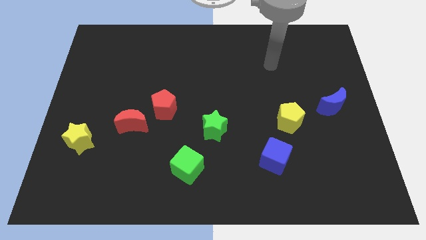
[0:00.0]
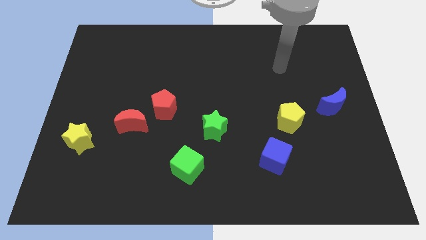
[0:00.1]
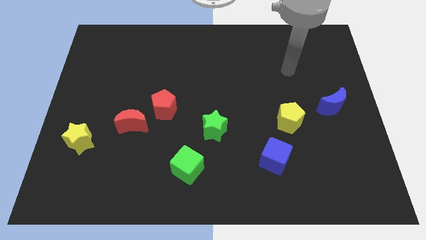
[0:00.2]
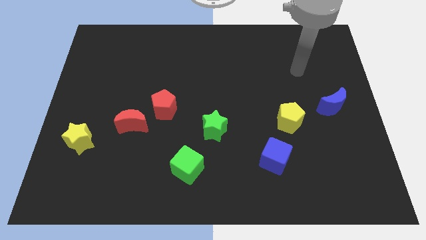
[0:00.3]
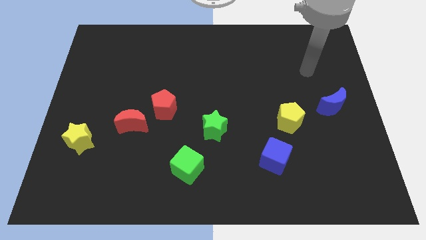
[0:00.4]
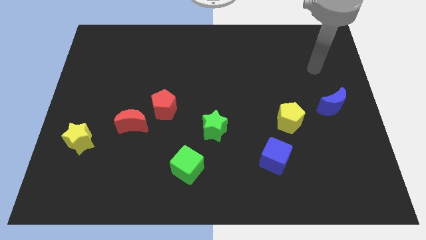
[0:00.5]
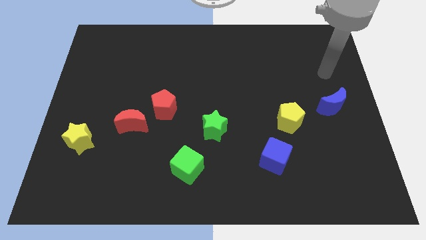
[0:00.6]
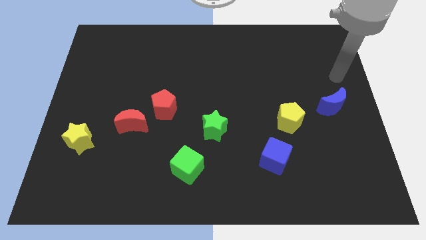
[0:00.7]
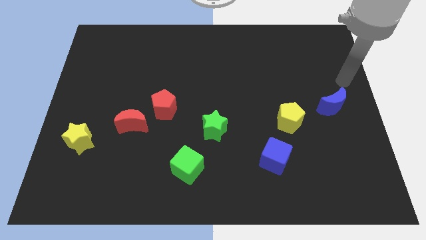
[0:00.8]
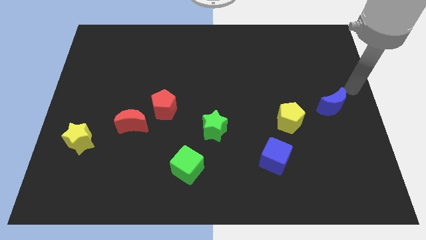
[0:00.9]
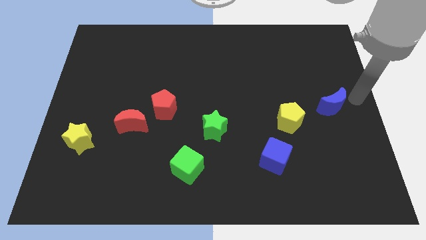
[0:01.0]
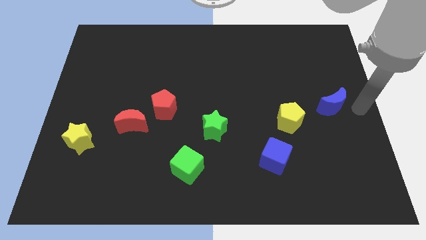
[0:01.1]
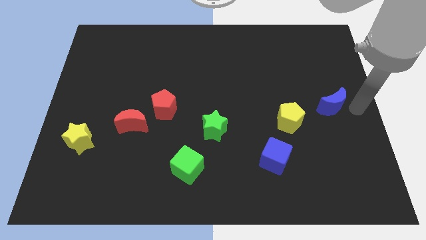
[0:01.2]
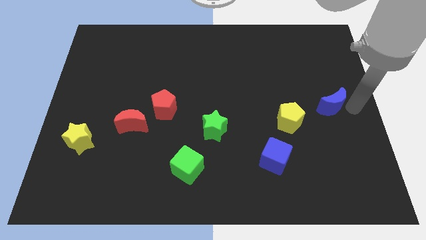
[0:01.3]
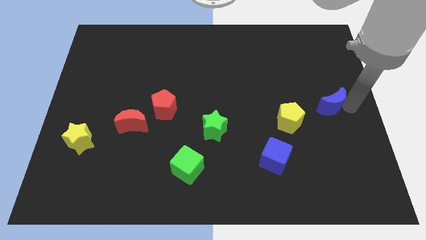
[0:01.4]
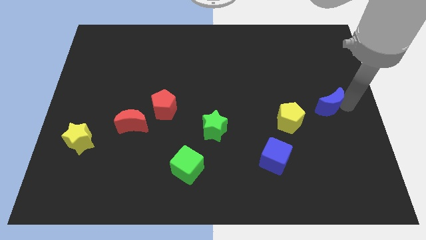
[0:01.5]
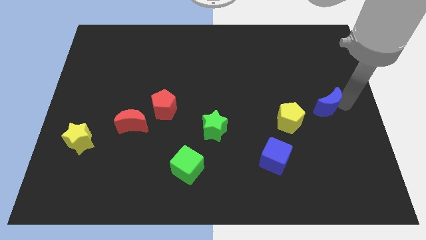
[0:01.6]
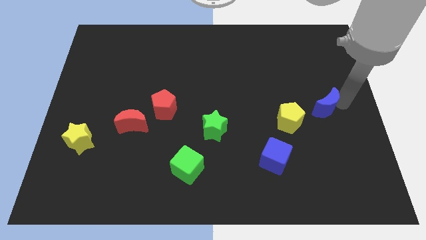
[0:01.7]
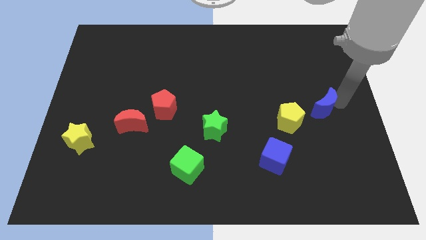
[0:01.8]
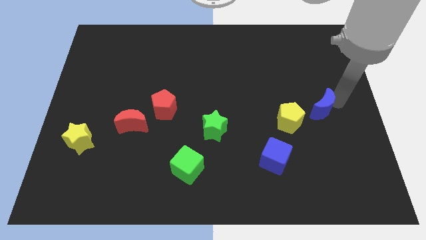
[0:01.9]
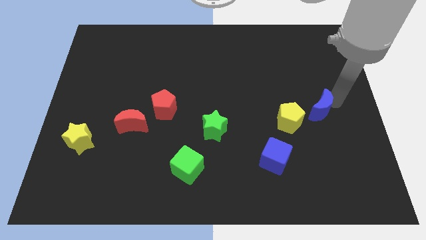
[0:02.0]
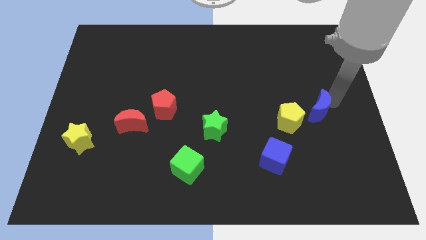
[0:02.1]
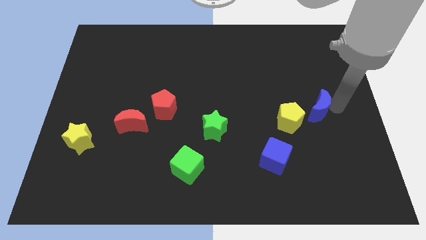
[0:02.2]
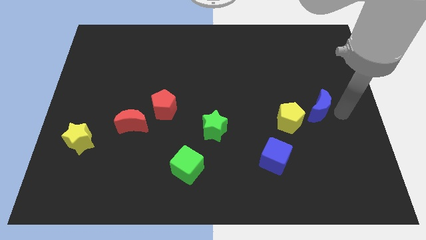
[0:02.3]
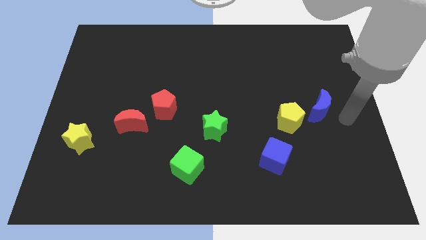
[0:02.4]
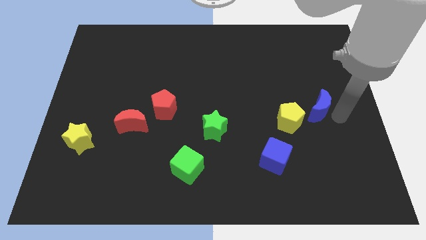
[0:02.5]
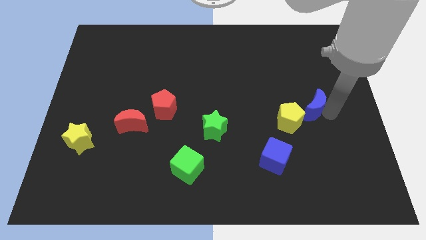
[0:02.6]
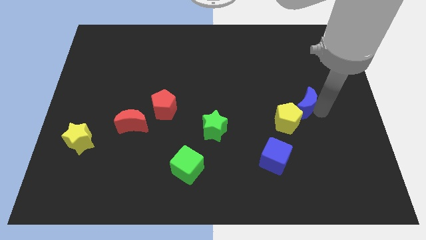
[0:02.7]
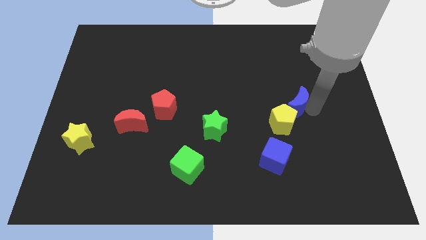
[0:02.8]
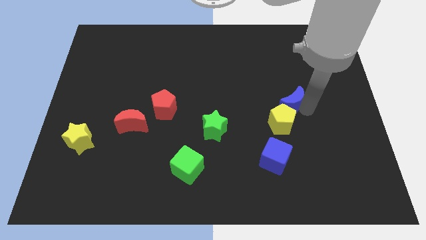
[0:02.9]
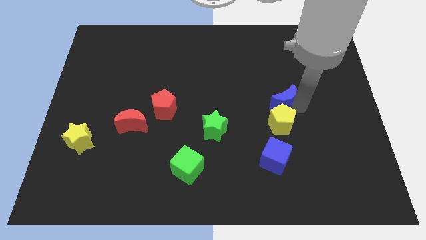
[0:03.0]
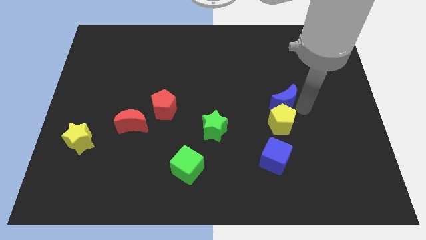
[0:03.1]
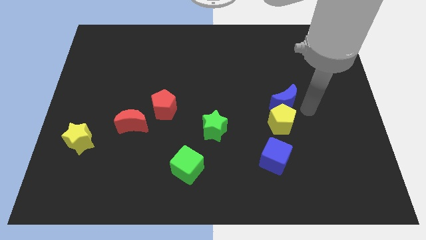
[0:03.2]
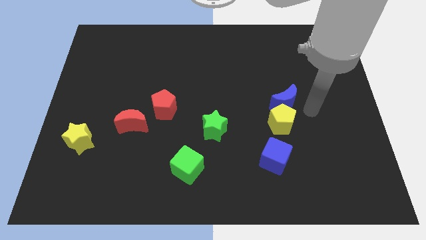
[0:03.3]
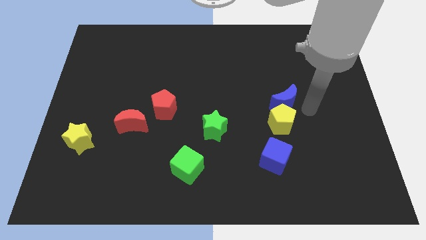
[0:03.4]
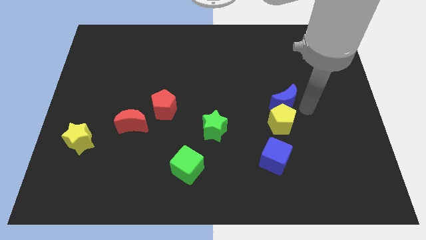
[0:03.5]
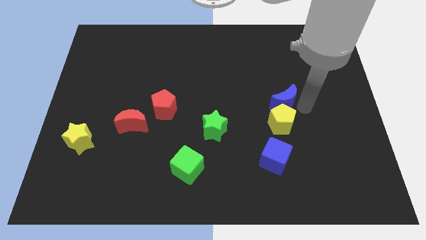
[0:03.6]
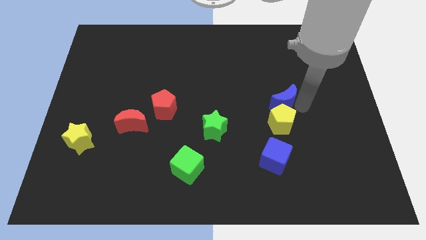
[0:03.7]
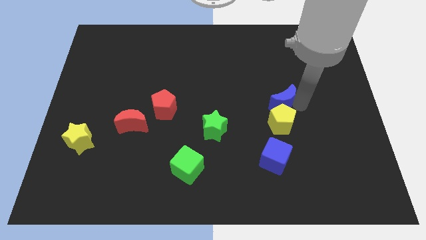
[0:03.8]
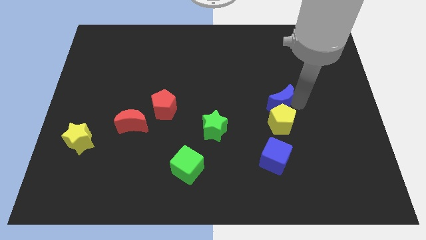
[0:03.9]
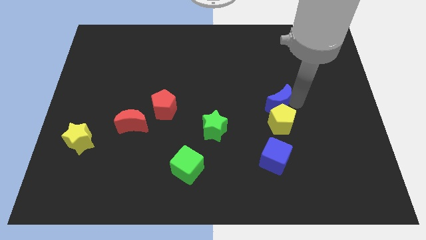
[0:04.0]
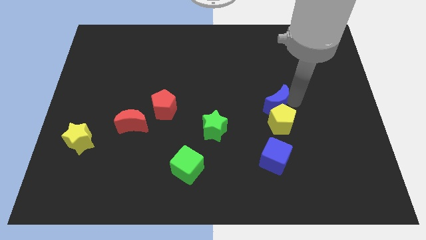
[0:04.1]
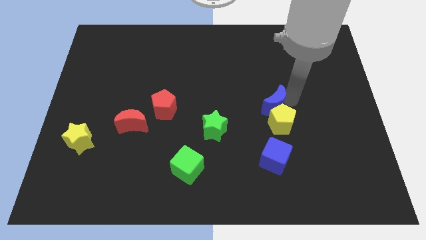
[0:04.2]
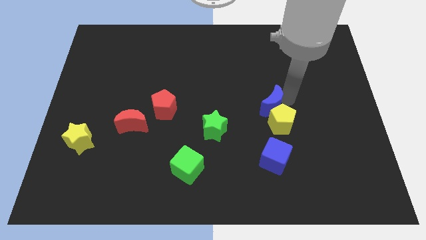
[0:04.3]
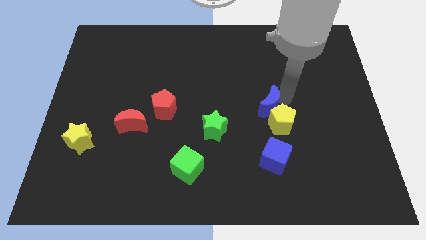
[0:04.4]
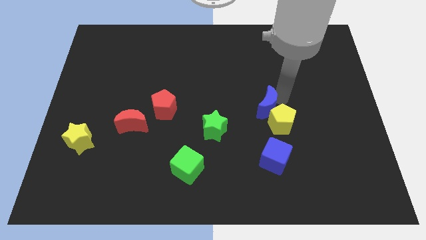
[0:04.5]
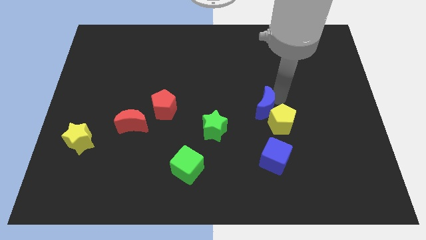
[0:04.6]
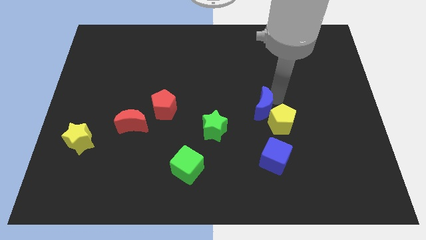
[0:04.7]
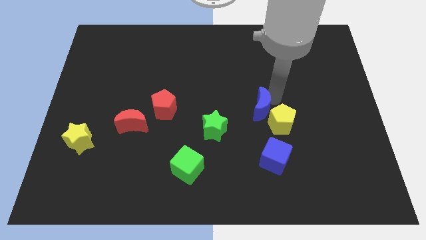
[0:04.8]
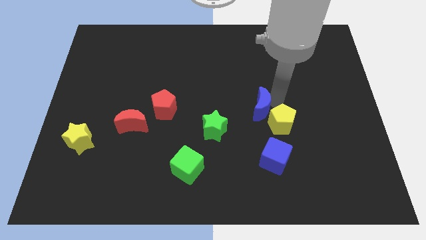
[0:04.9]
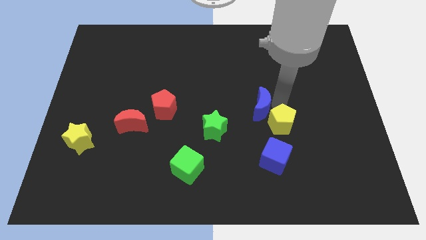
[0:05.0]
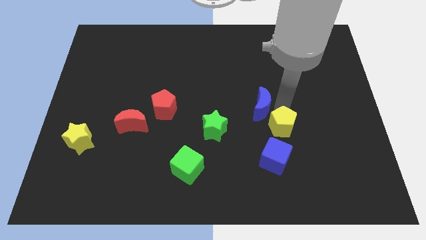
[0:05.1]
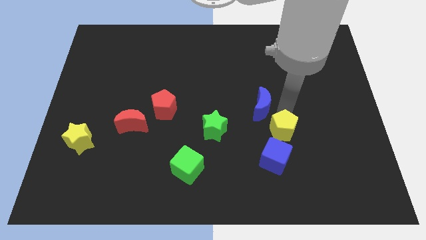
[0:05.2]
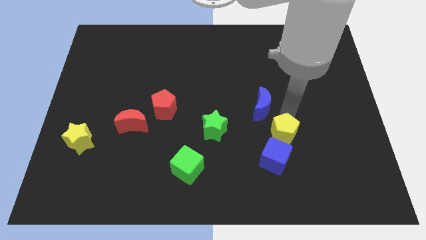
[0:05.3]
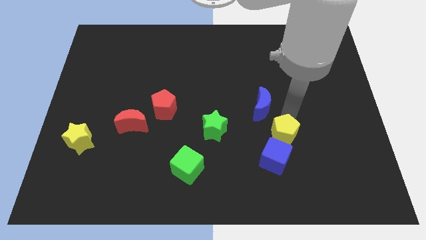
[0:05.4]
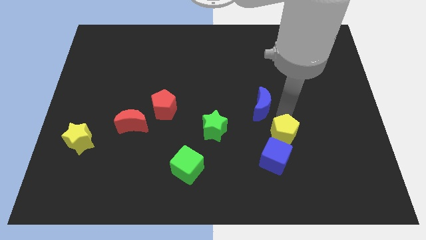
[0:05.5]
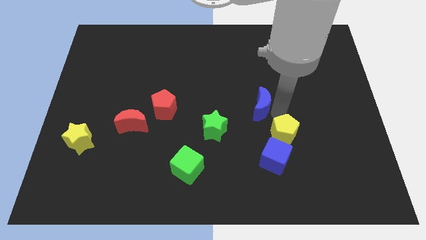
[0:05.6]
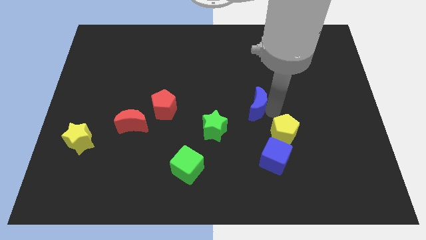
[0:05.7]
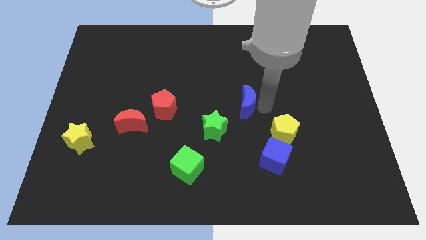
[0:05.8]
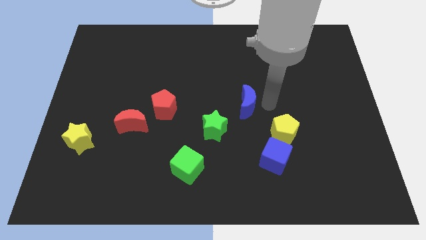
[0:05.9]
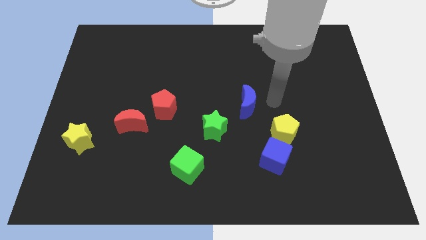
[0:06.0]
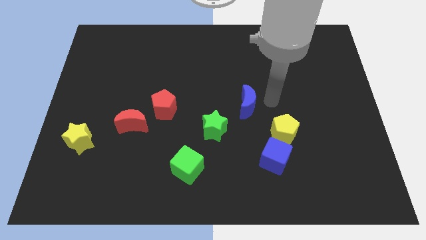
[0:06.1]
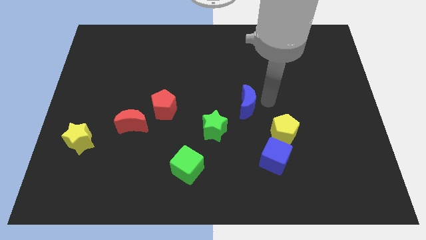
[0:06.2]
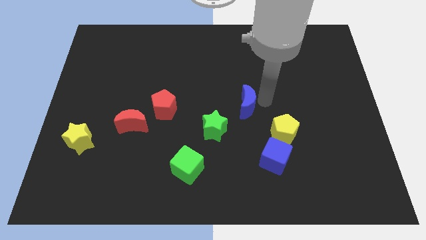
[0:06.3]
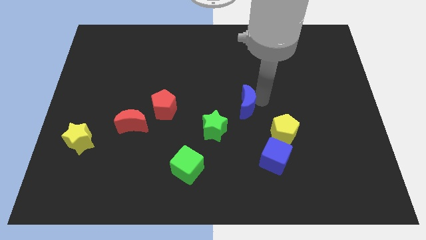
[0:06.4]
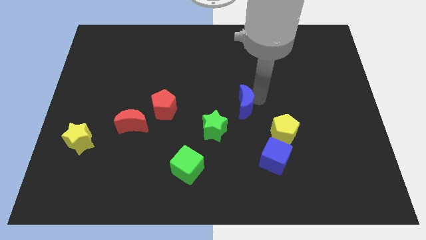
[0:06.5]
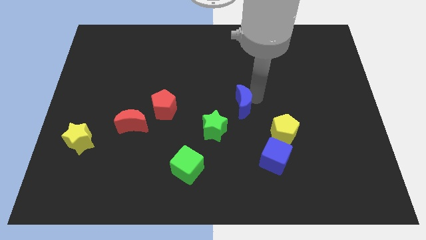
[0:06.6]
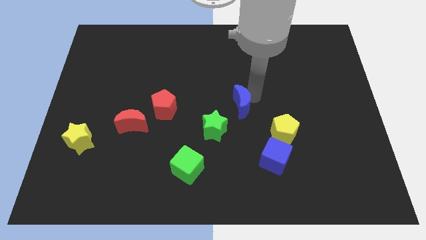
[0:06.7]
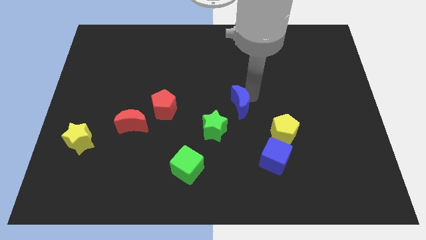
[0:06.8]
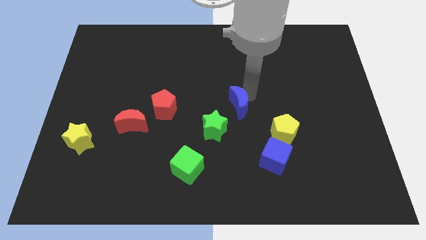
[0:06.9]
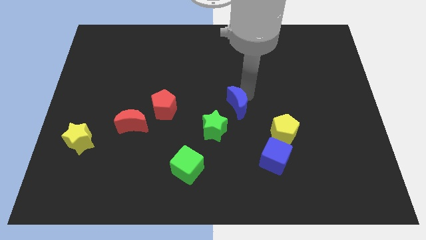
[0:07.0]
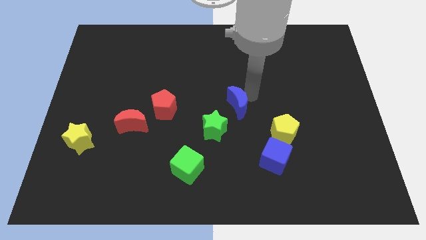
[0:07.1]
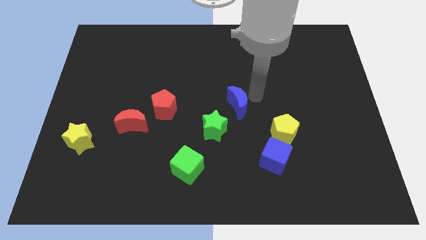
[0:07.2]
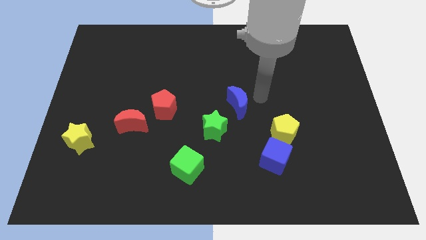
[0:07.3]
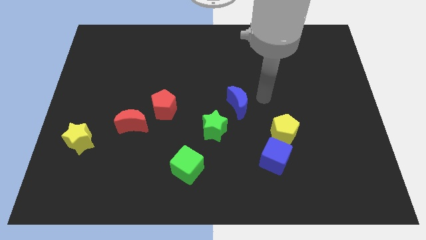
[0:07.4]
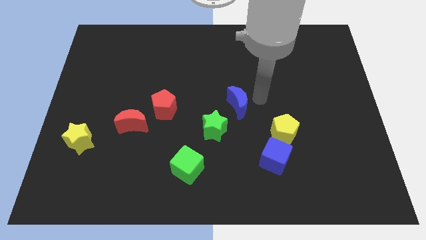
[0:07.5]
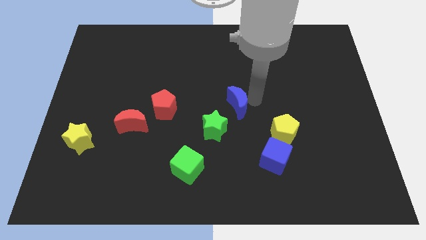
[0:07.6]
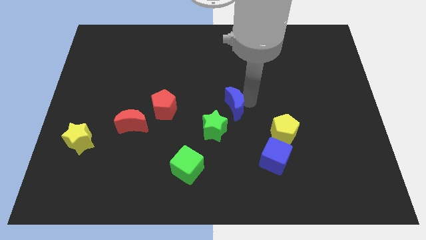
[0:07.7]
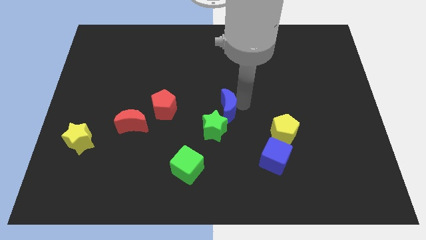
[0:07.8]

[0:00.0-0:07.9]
put the blue moon to the right of the red pentagon

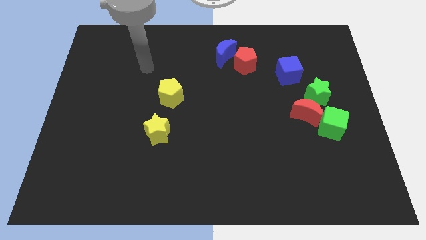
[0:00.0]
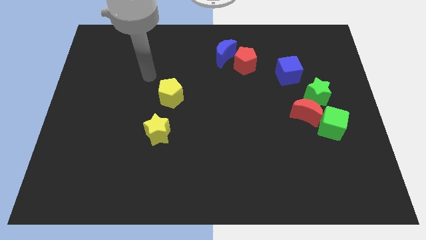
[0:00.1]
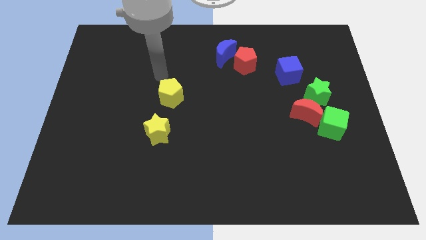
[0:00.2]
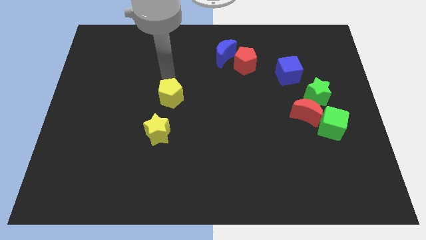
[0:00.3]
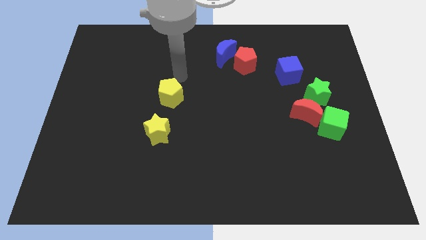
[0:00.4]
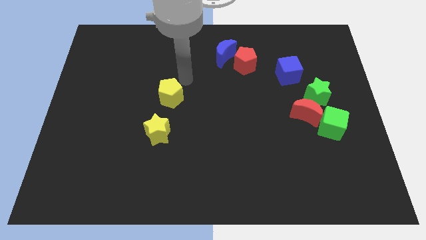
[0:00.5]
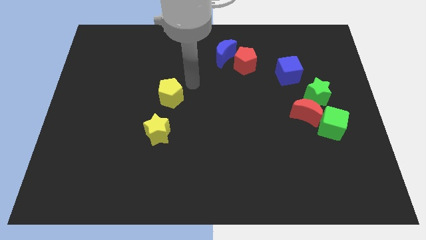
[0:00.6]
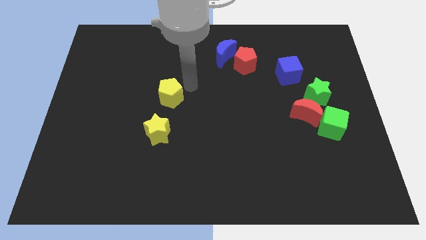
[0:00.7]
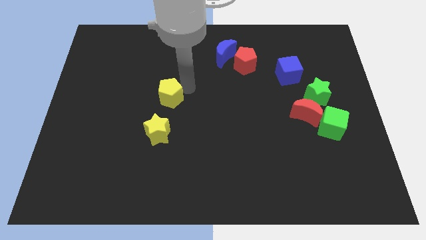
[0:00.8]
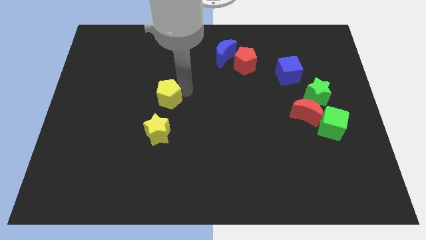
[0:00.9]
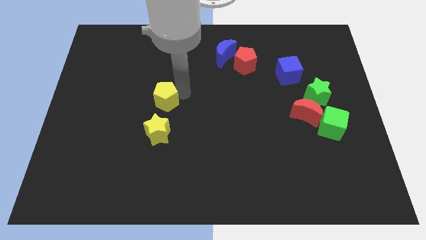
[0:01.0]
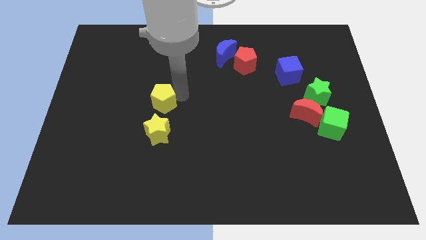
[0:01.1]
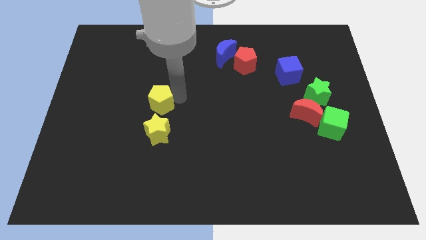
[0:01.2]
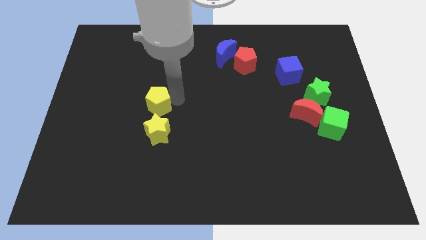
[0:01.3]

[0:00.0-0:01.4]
put the yellow pentagon to the top left of the yellow star
